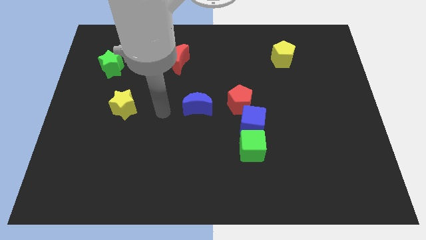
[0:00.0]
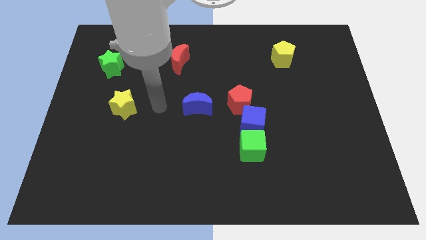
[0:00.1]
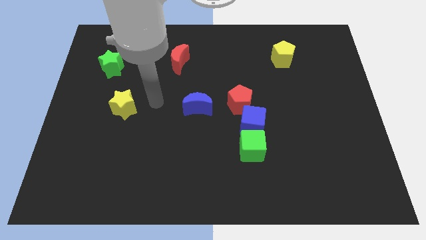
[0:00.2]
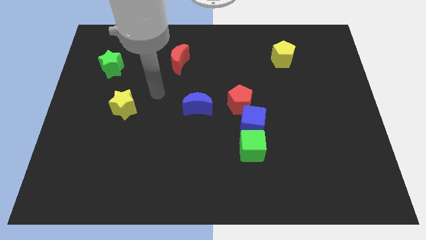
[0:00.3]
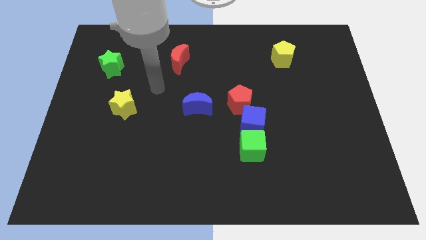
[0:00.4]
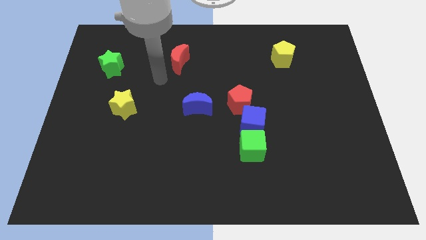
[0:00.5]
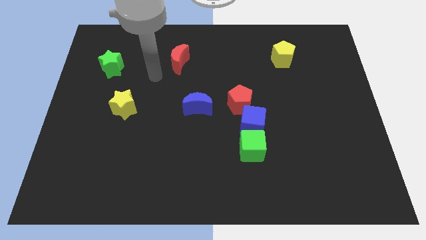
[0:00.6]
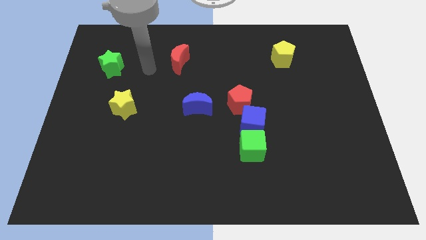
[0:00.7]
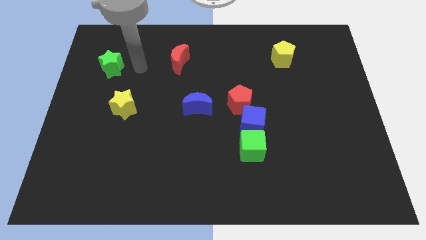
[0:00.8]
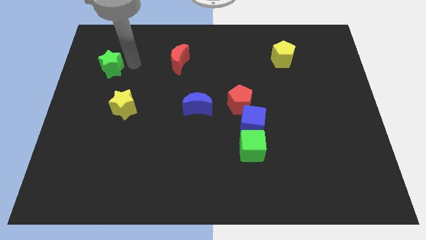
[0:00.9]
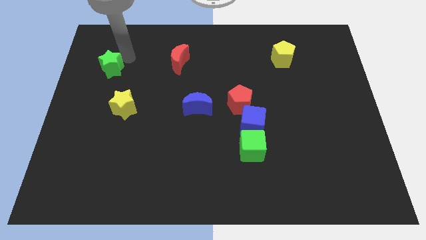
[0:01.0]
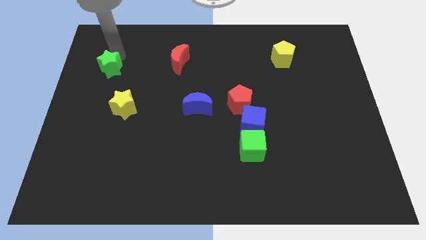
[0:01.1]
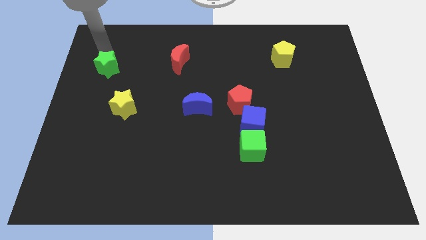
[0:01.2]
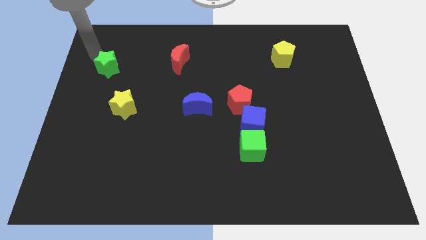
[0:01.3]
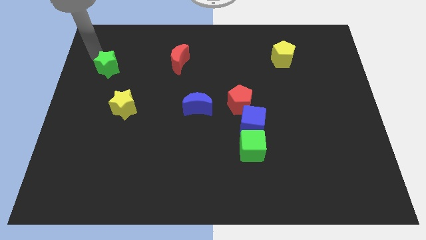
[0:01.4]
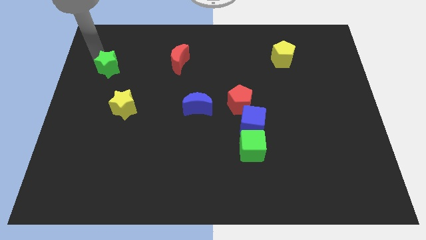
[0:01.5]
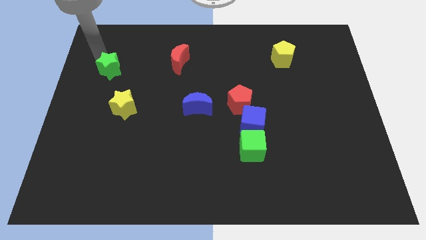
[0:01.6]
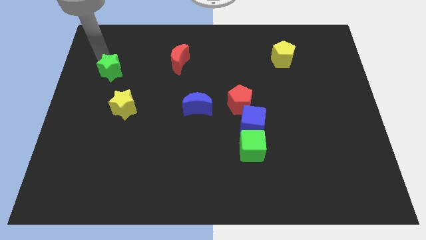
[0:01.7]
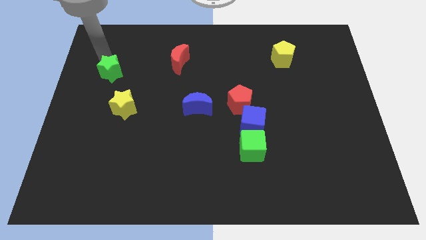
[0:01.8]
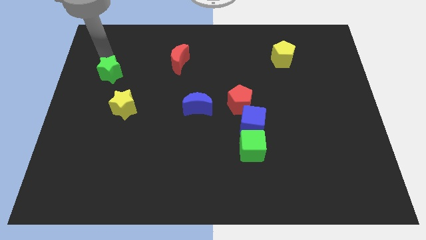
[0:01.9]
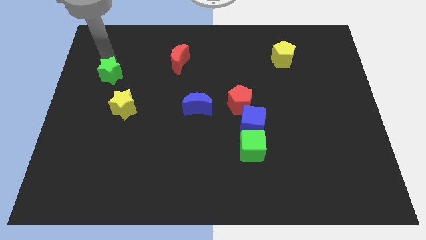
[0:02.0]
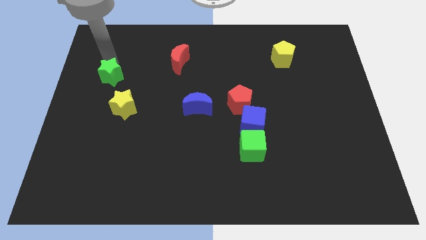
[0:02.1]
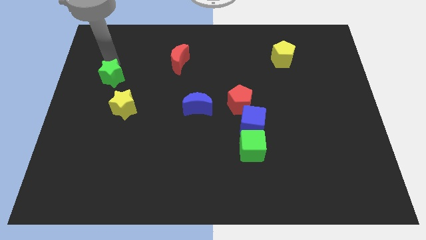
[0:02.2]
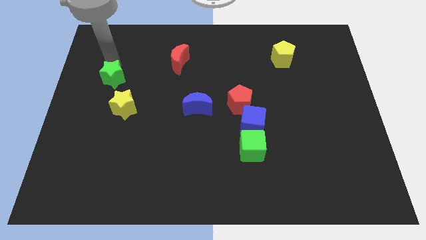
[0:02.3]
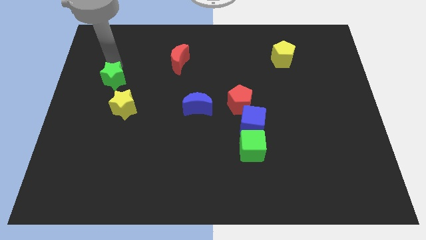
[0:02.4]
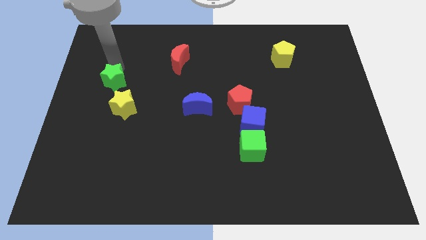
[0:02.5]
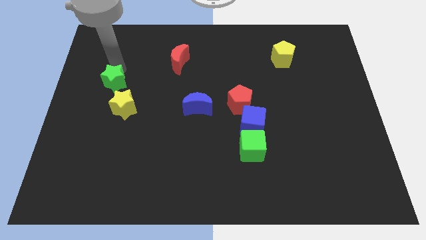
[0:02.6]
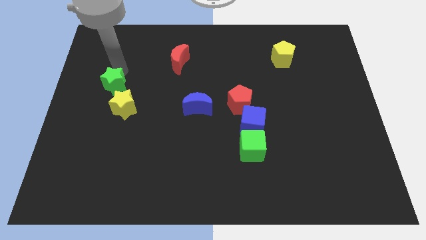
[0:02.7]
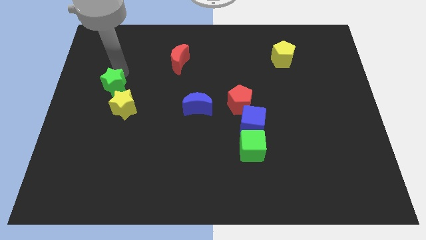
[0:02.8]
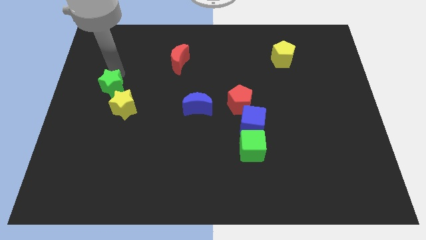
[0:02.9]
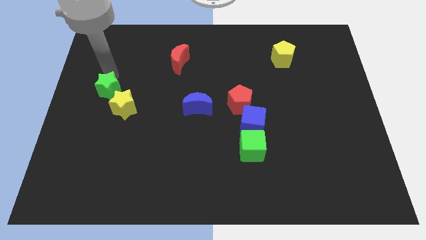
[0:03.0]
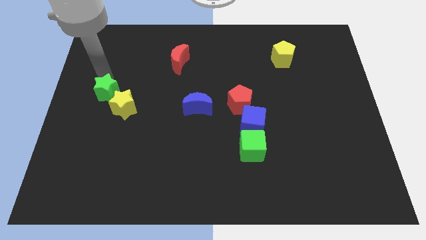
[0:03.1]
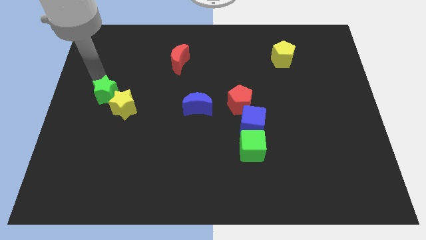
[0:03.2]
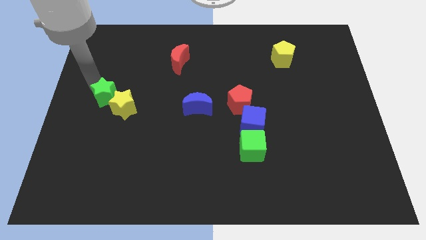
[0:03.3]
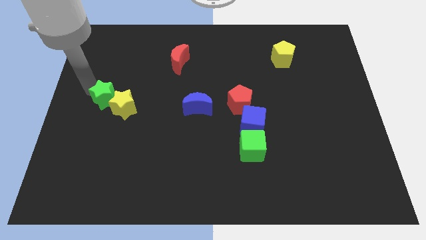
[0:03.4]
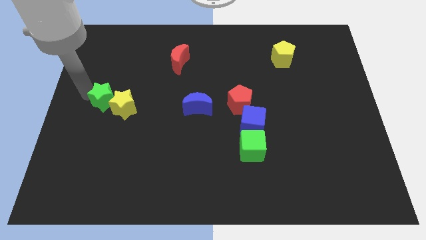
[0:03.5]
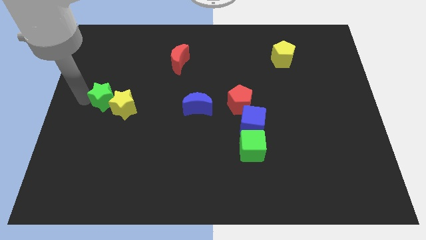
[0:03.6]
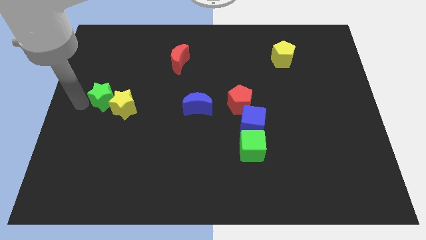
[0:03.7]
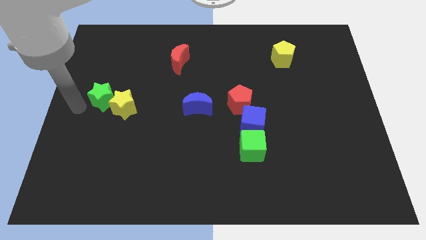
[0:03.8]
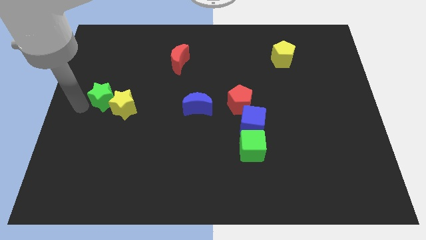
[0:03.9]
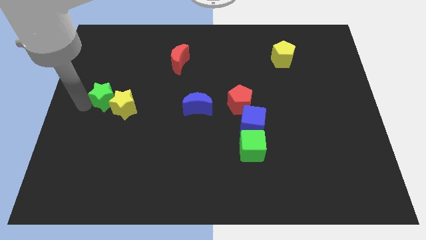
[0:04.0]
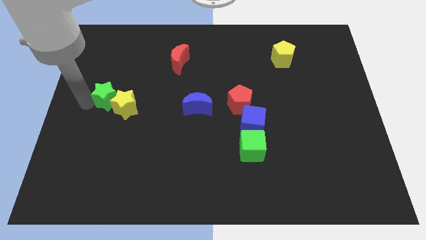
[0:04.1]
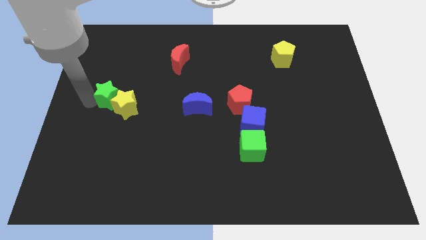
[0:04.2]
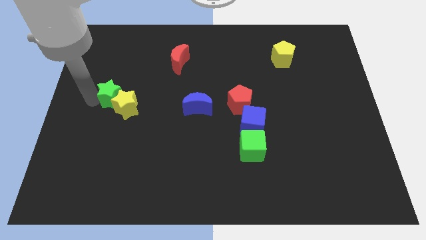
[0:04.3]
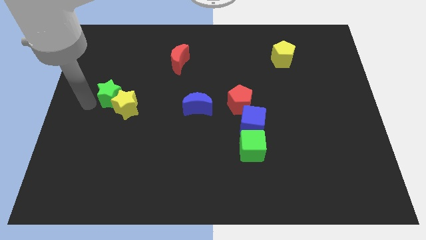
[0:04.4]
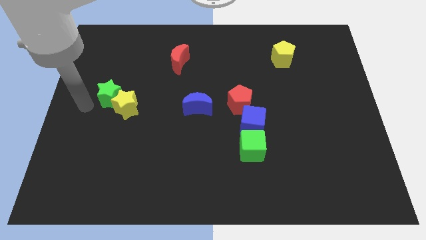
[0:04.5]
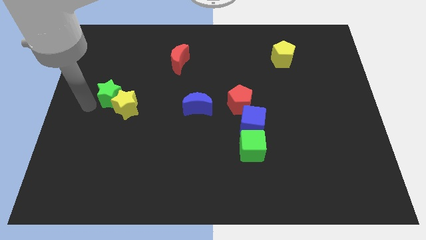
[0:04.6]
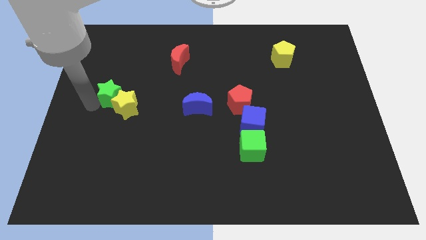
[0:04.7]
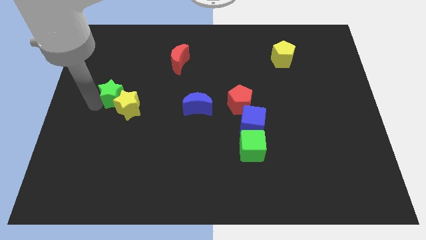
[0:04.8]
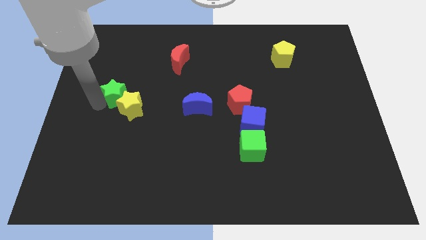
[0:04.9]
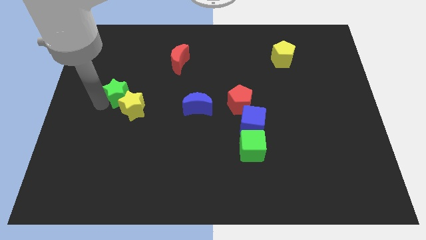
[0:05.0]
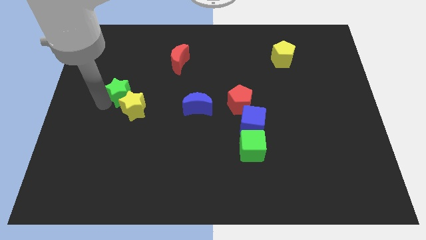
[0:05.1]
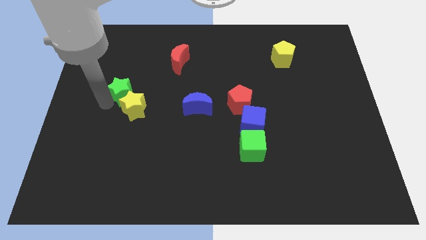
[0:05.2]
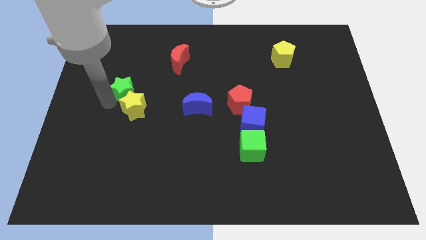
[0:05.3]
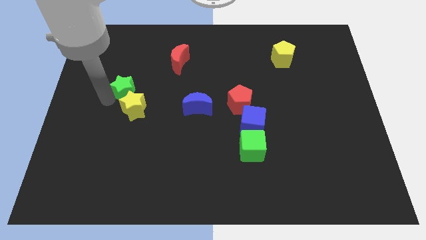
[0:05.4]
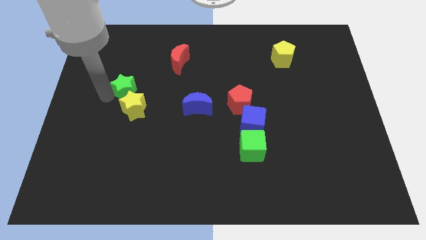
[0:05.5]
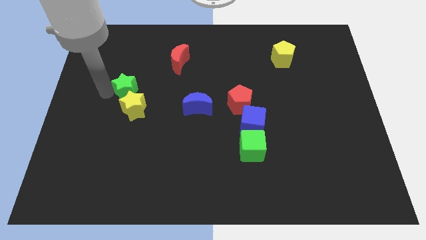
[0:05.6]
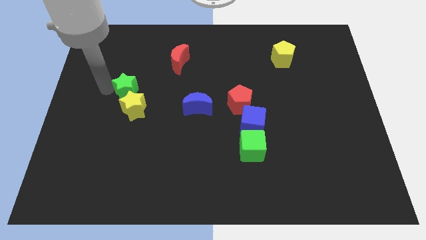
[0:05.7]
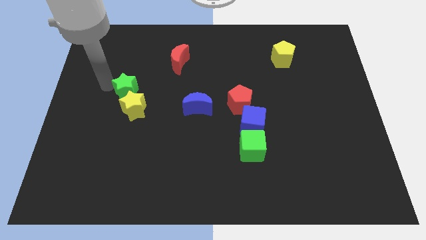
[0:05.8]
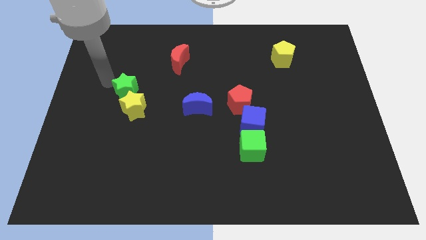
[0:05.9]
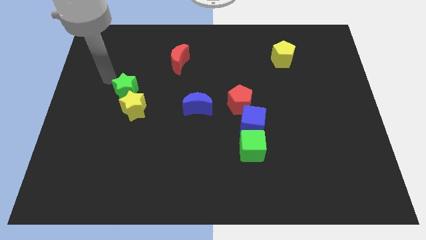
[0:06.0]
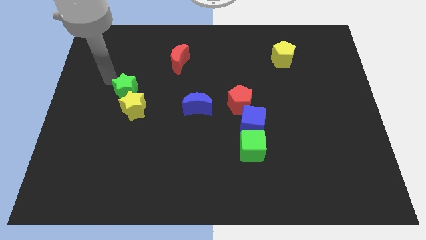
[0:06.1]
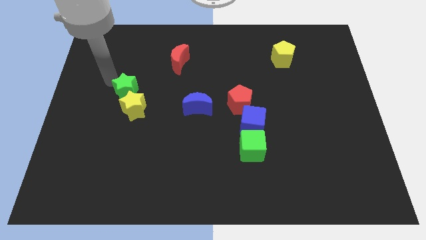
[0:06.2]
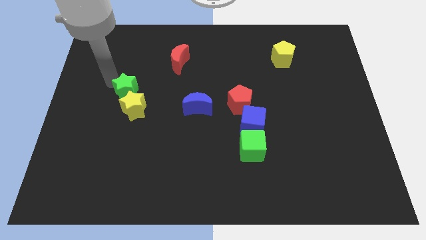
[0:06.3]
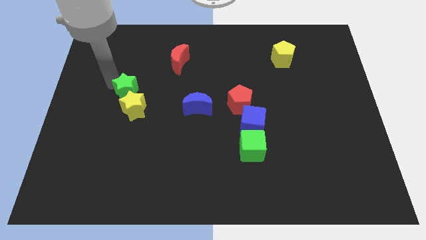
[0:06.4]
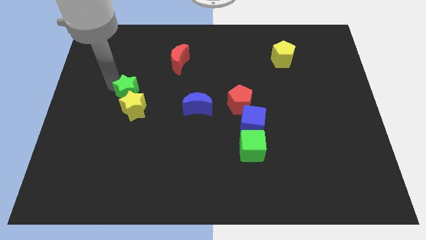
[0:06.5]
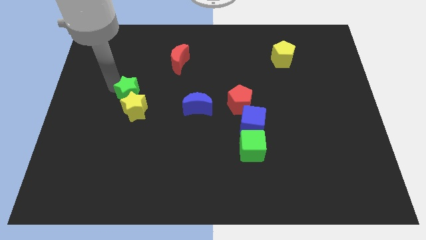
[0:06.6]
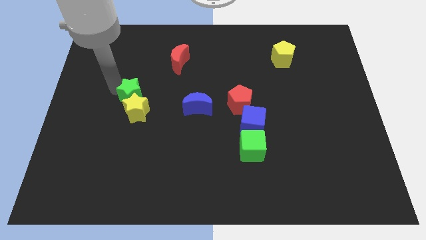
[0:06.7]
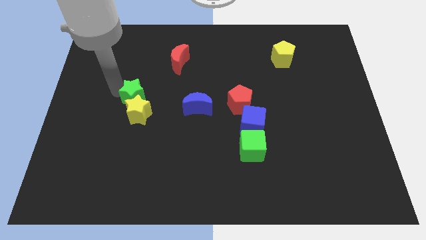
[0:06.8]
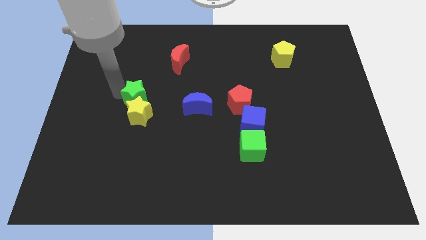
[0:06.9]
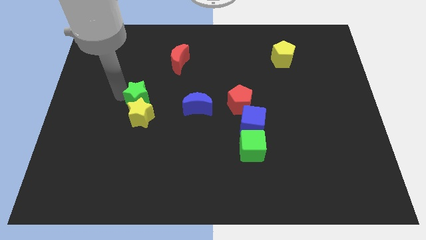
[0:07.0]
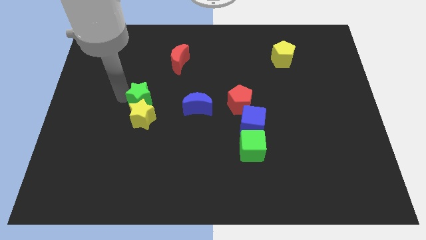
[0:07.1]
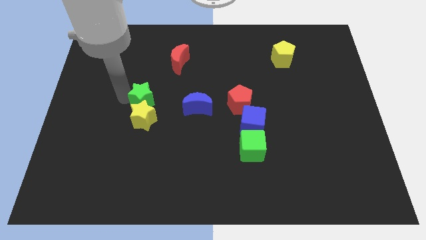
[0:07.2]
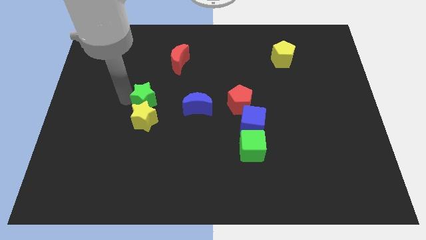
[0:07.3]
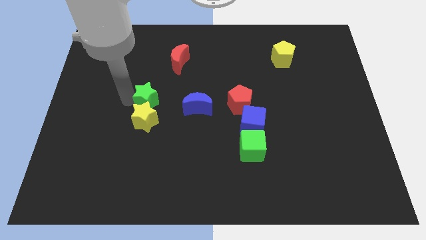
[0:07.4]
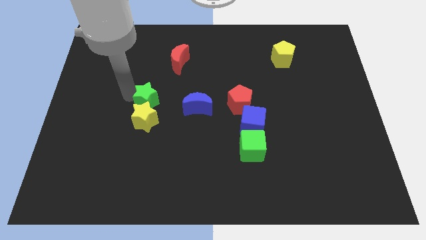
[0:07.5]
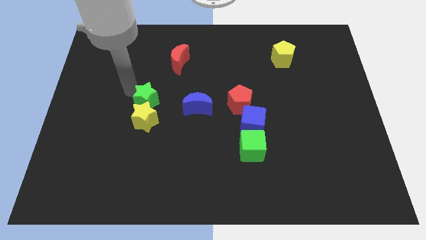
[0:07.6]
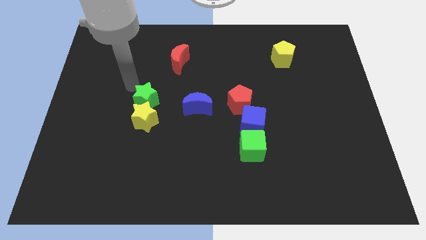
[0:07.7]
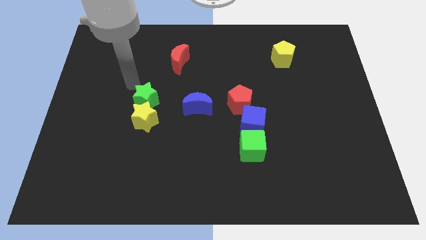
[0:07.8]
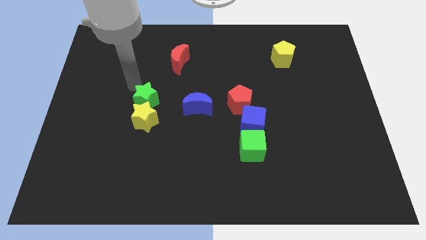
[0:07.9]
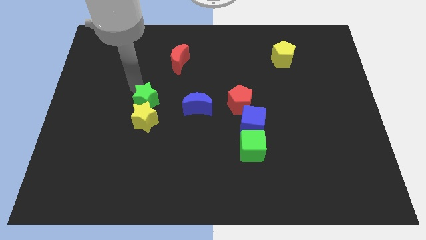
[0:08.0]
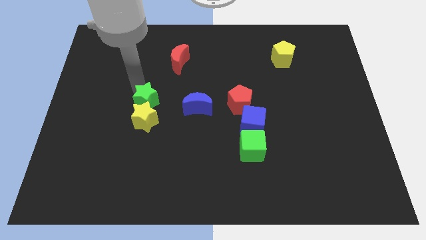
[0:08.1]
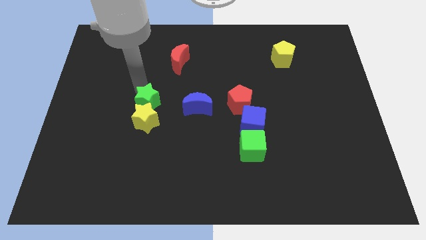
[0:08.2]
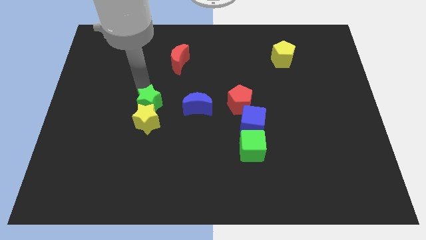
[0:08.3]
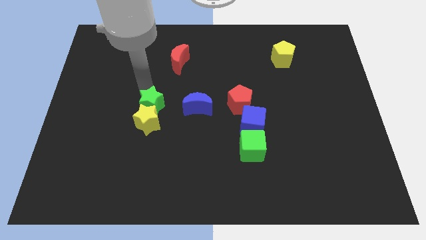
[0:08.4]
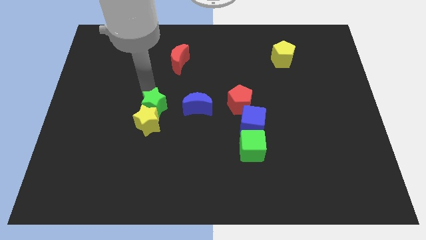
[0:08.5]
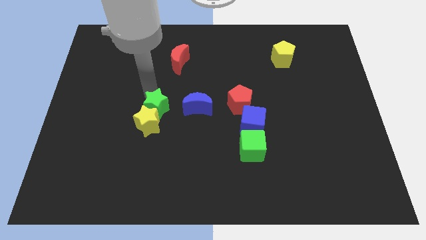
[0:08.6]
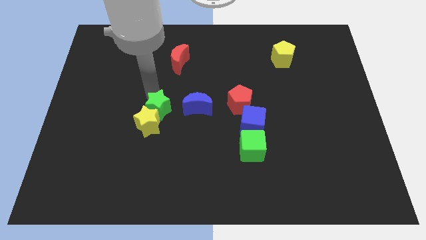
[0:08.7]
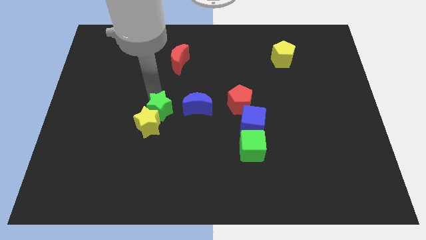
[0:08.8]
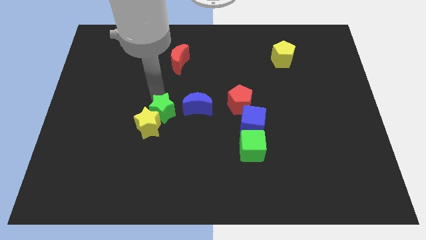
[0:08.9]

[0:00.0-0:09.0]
move the green star diagonally down and right
